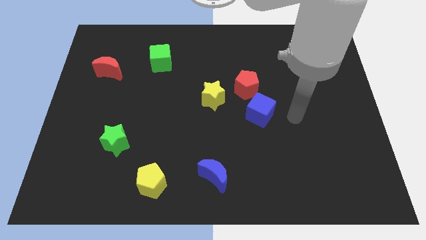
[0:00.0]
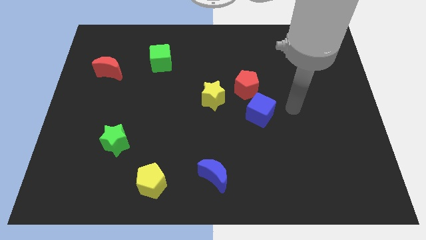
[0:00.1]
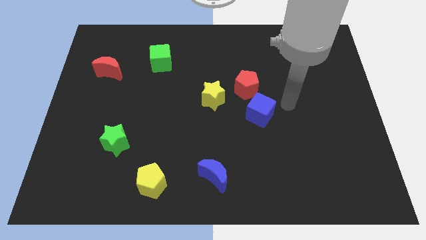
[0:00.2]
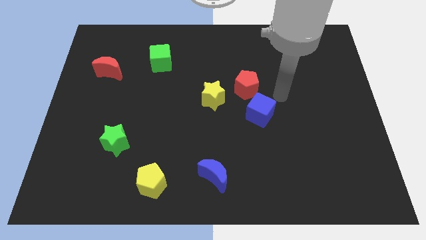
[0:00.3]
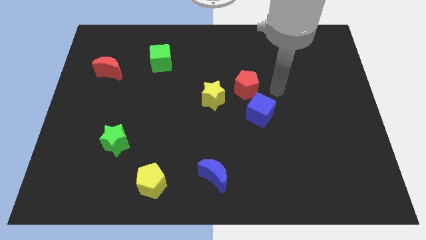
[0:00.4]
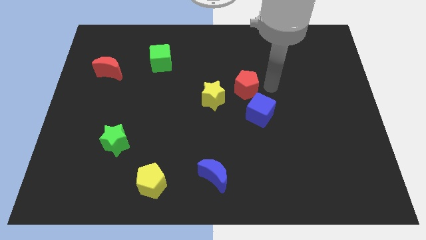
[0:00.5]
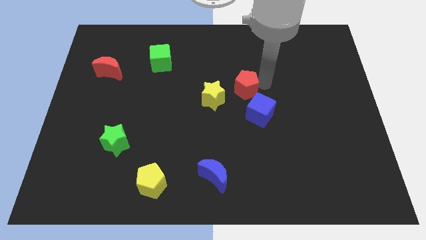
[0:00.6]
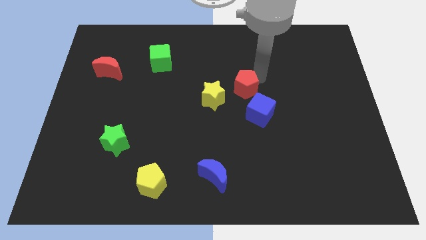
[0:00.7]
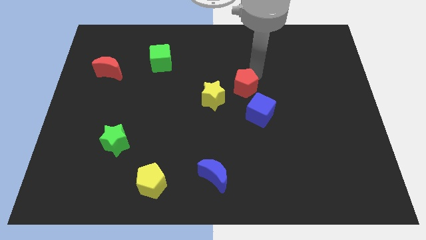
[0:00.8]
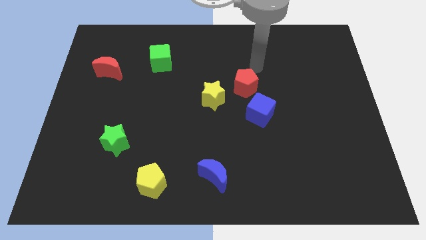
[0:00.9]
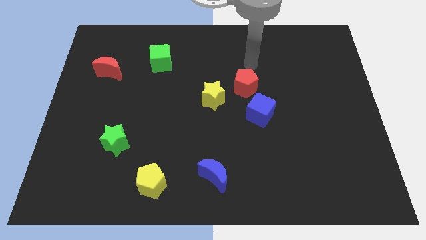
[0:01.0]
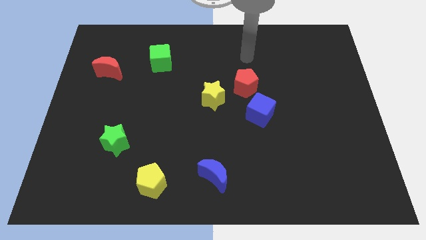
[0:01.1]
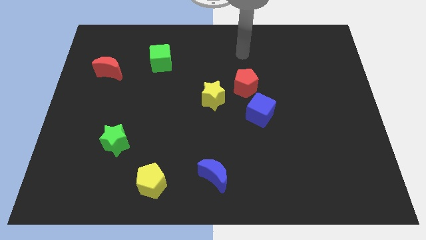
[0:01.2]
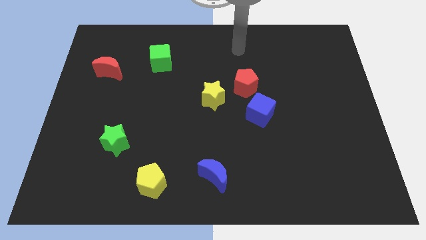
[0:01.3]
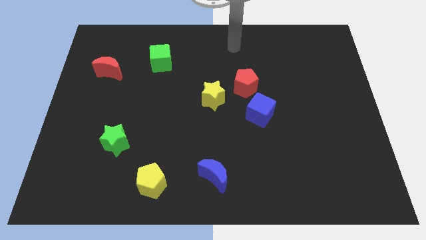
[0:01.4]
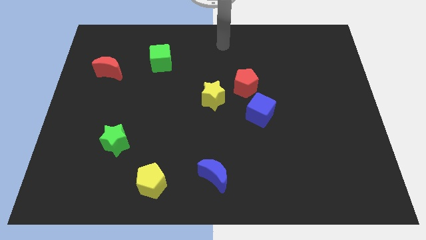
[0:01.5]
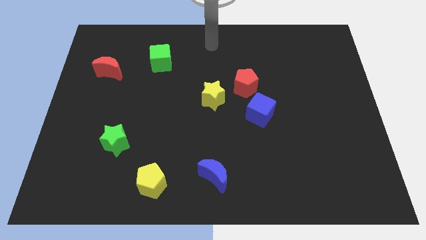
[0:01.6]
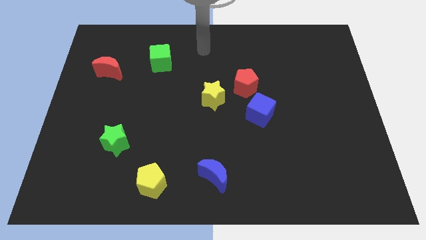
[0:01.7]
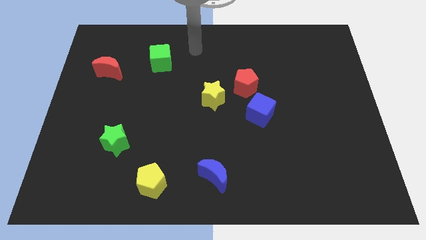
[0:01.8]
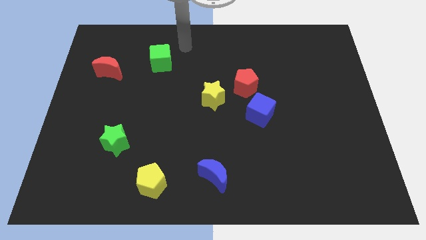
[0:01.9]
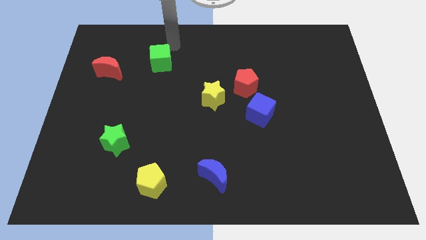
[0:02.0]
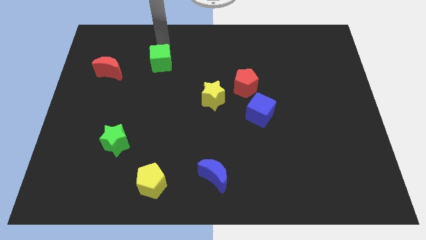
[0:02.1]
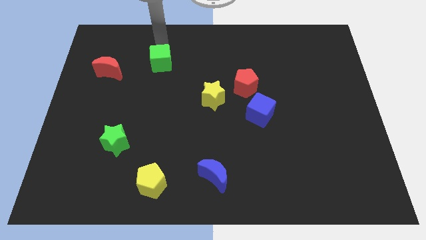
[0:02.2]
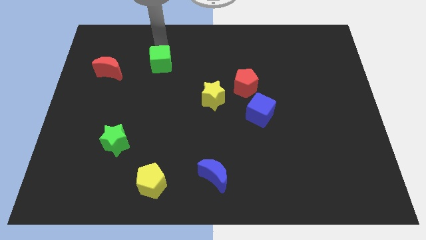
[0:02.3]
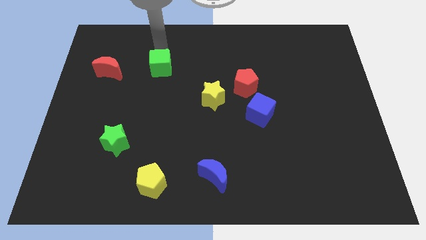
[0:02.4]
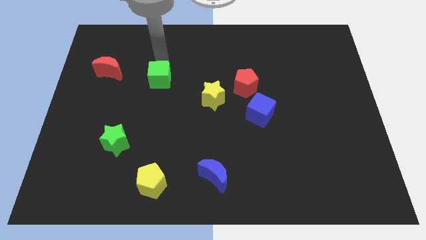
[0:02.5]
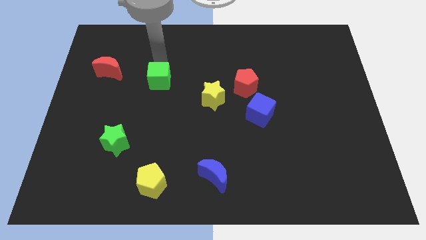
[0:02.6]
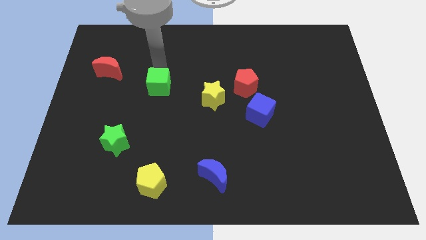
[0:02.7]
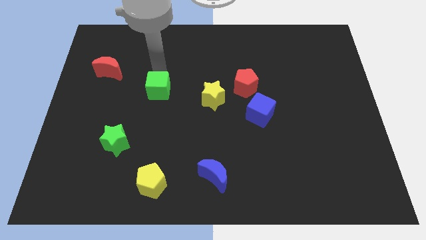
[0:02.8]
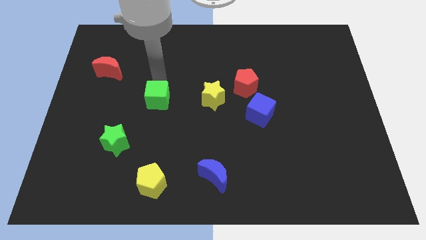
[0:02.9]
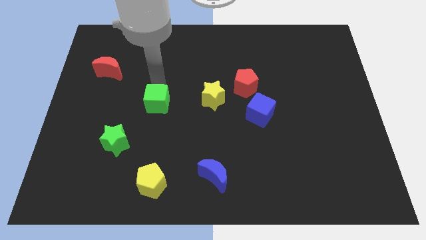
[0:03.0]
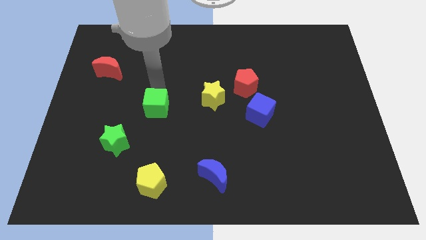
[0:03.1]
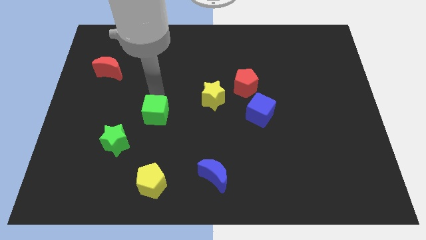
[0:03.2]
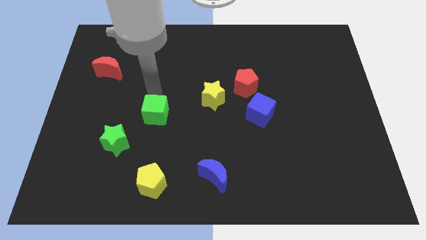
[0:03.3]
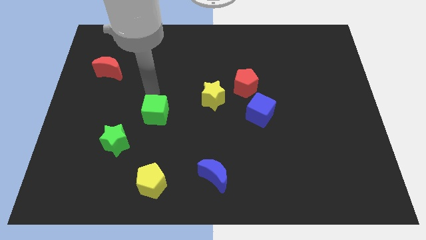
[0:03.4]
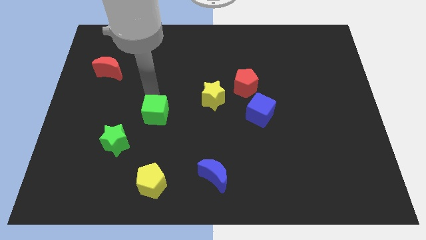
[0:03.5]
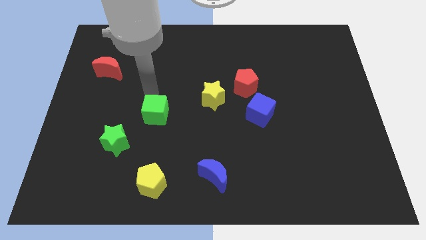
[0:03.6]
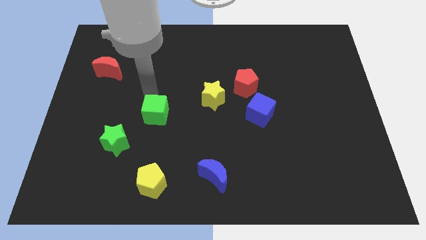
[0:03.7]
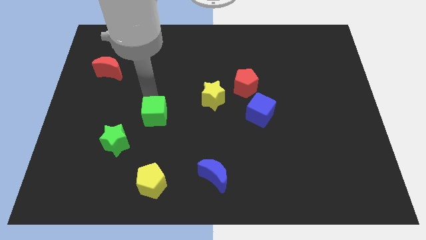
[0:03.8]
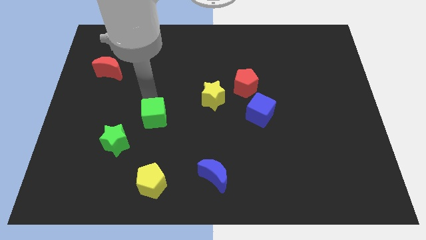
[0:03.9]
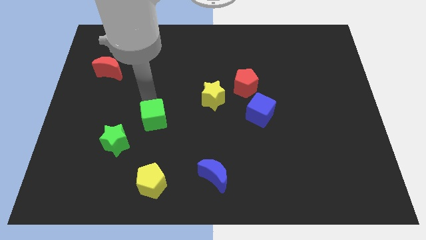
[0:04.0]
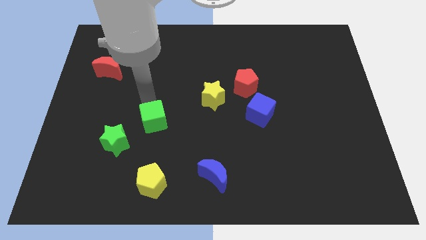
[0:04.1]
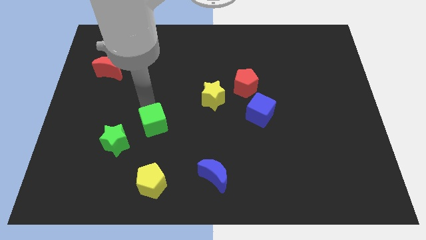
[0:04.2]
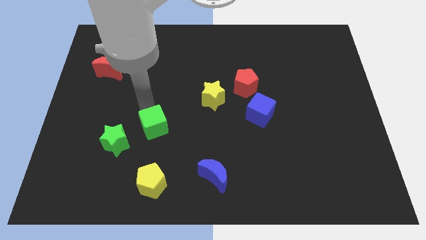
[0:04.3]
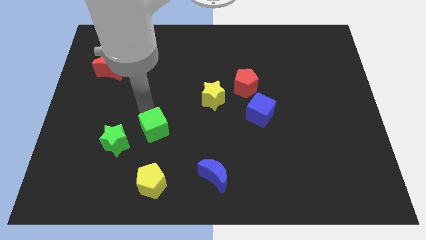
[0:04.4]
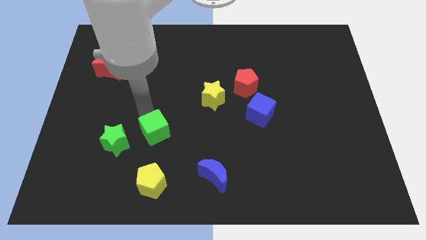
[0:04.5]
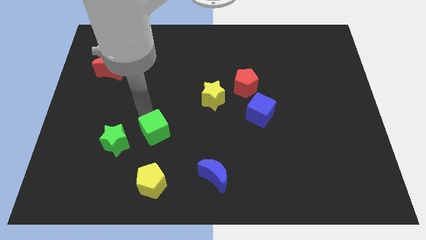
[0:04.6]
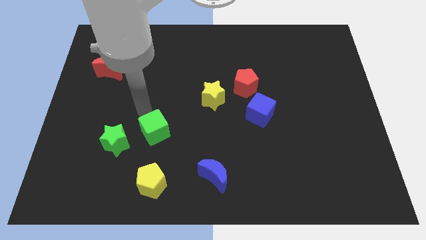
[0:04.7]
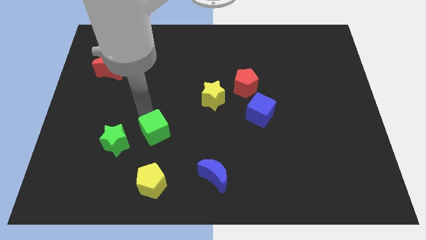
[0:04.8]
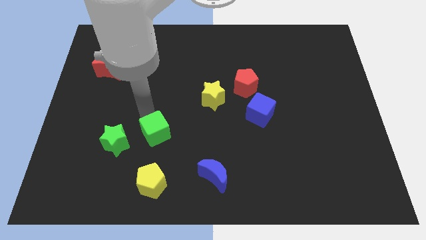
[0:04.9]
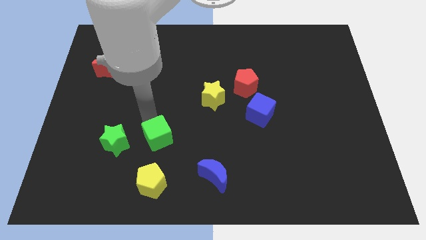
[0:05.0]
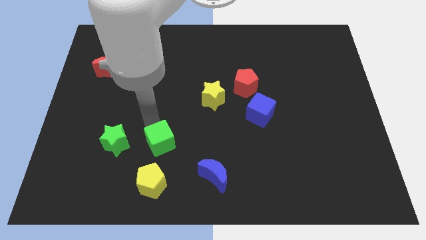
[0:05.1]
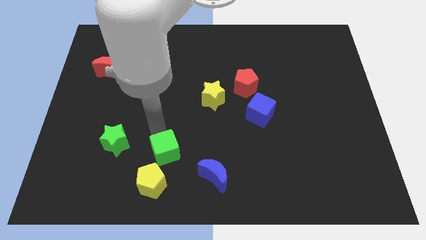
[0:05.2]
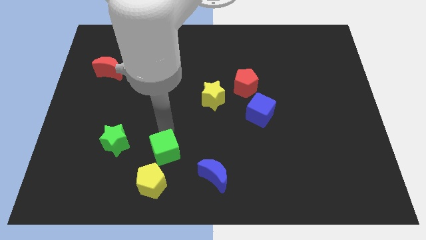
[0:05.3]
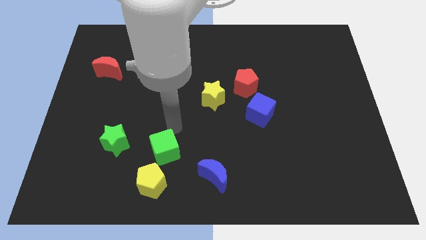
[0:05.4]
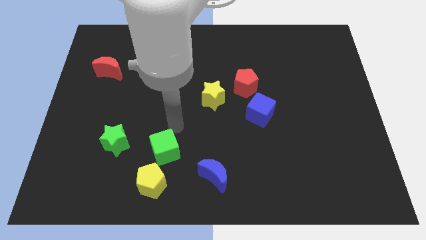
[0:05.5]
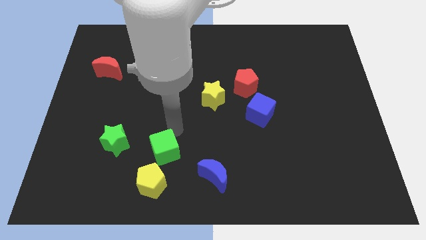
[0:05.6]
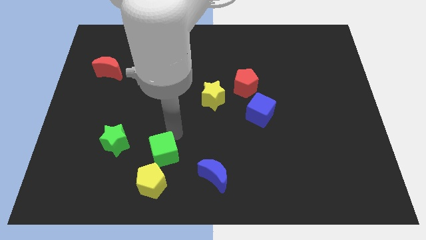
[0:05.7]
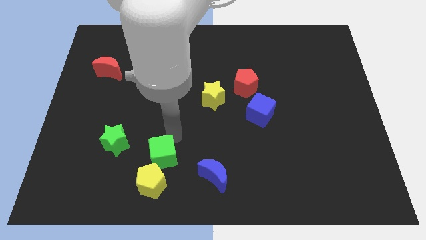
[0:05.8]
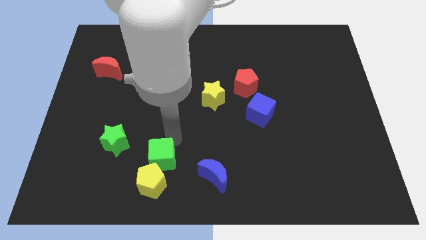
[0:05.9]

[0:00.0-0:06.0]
put the green cube close to the yellow pentagon
